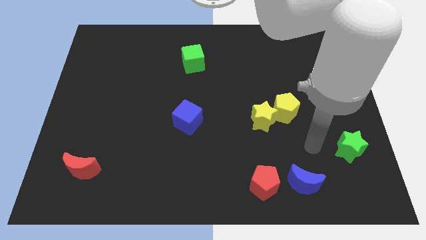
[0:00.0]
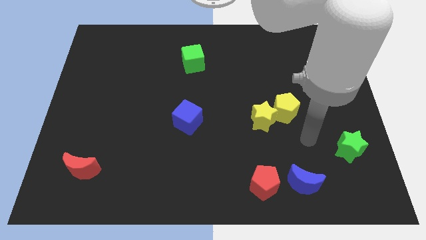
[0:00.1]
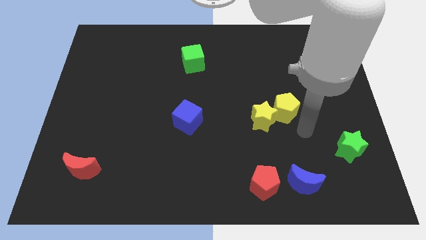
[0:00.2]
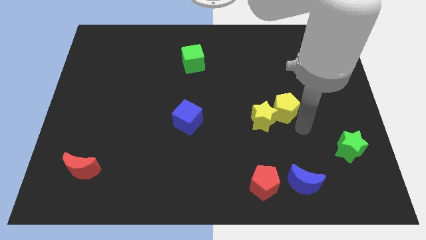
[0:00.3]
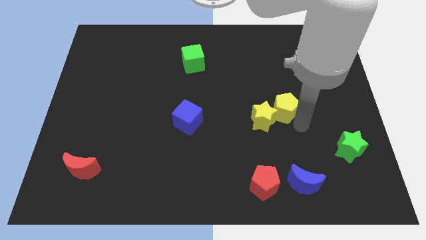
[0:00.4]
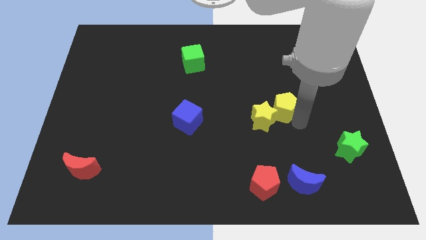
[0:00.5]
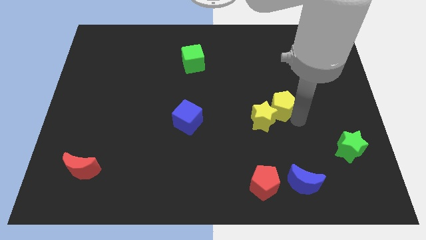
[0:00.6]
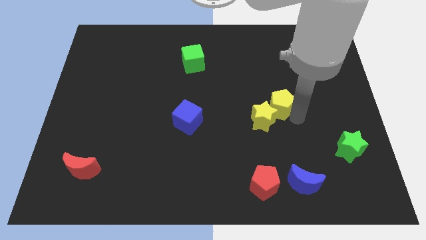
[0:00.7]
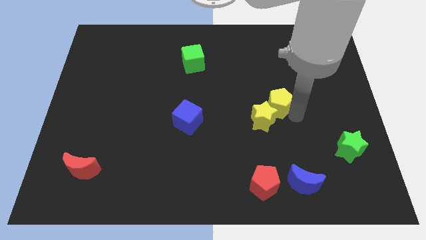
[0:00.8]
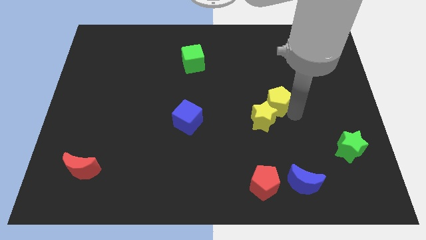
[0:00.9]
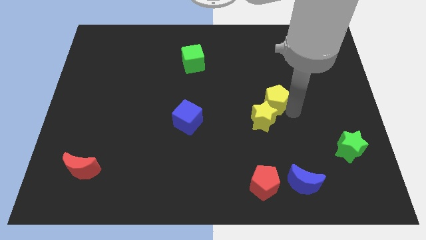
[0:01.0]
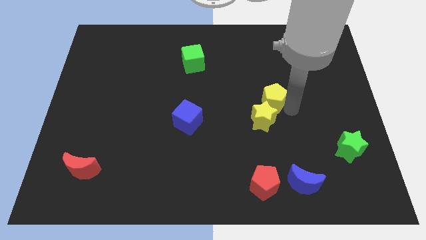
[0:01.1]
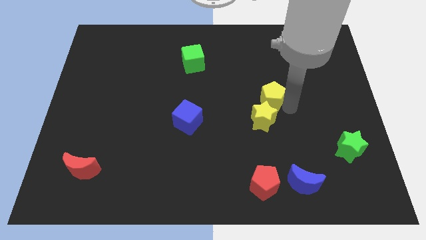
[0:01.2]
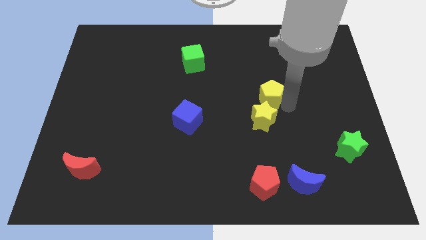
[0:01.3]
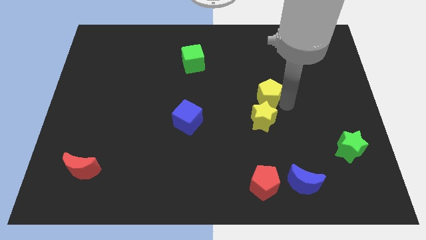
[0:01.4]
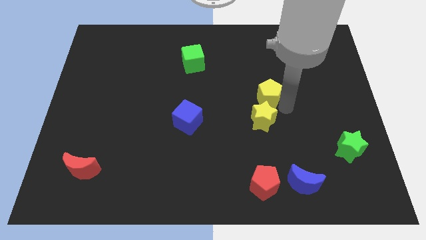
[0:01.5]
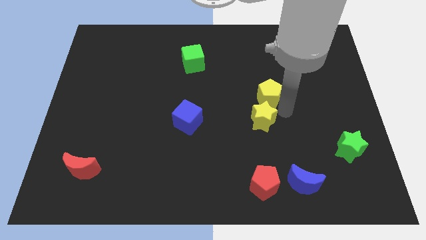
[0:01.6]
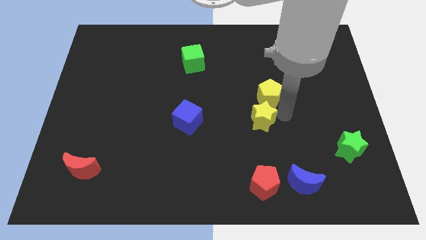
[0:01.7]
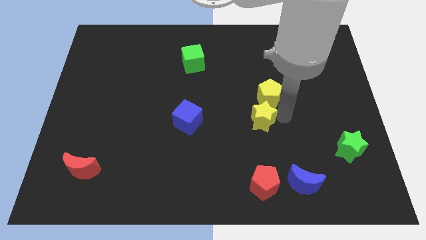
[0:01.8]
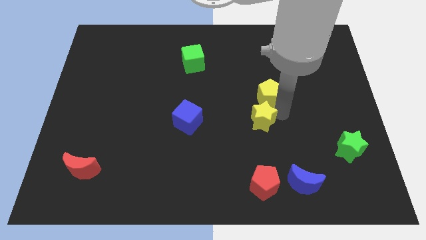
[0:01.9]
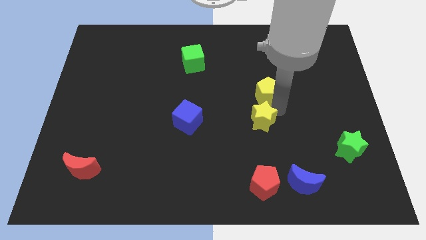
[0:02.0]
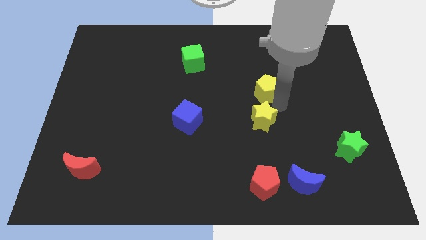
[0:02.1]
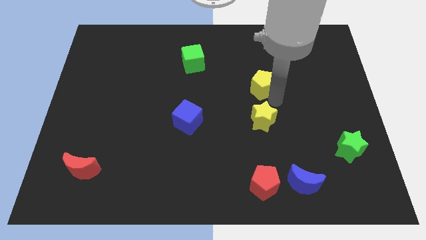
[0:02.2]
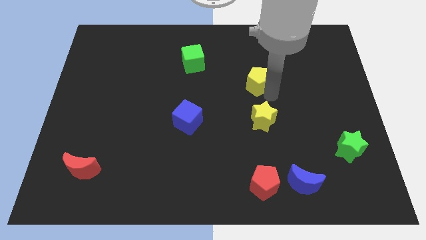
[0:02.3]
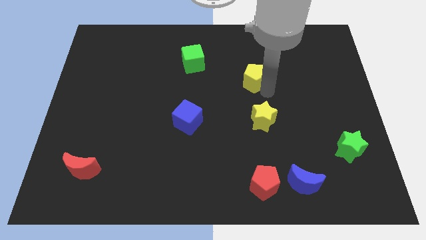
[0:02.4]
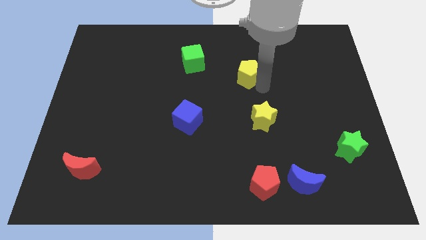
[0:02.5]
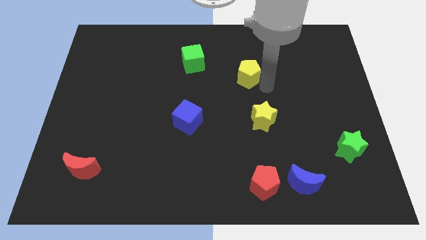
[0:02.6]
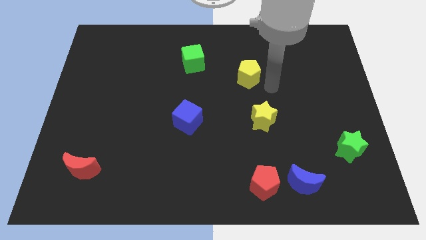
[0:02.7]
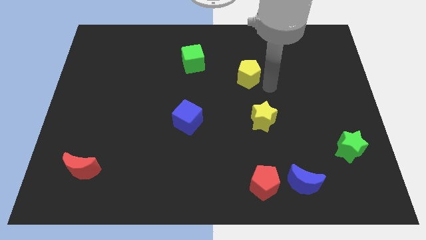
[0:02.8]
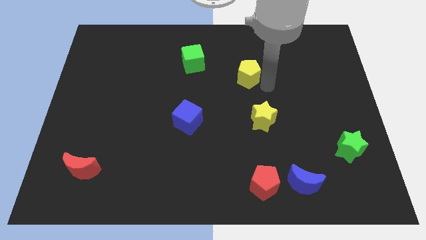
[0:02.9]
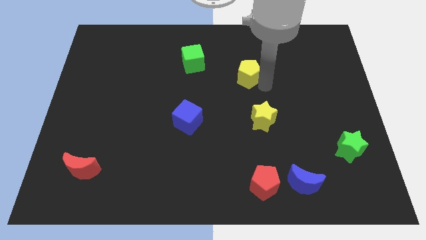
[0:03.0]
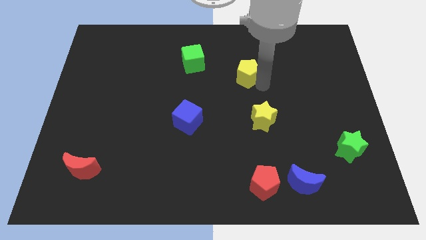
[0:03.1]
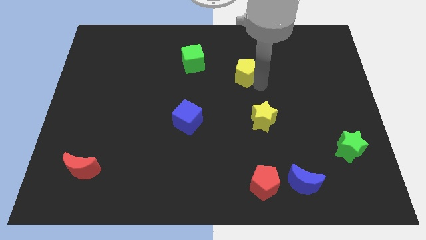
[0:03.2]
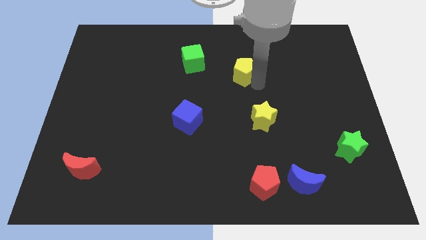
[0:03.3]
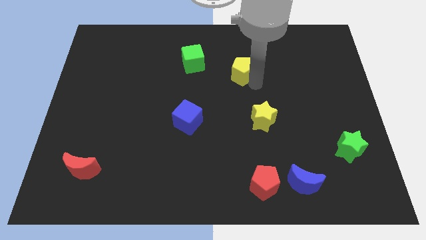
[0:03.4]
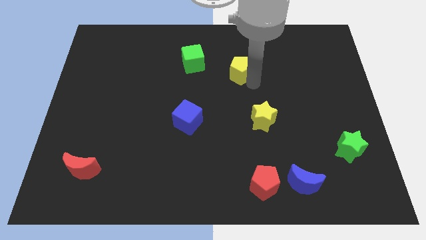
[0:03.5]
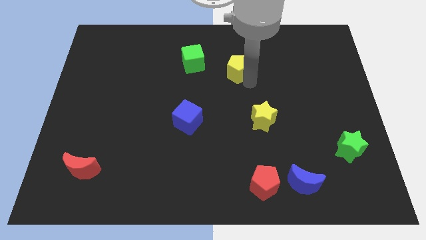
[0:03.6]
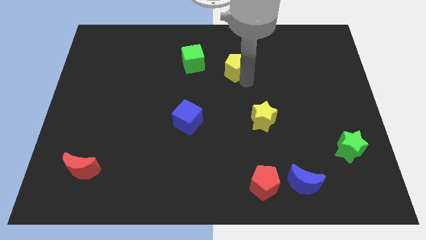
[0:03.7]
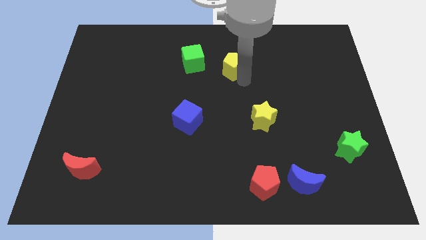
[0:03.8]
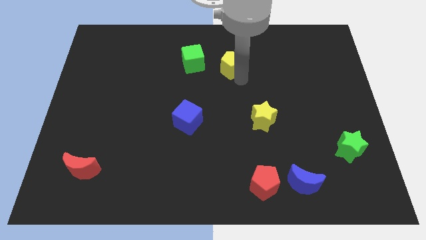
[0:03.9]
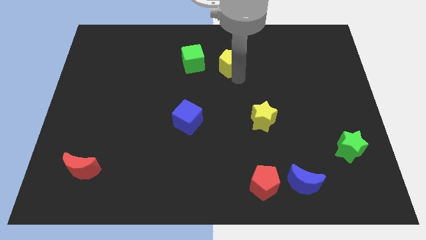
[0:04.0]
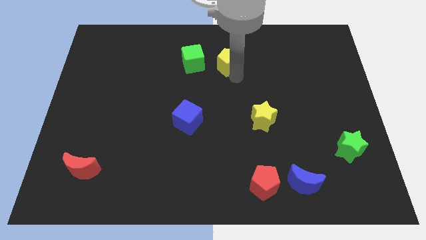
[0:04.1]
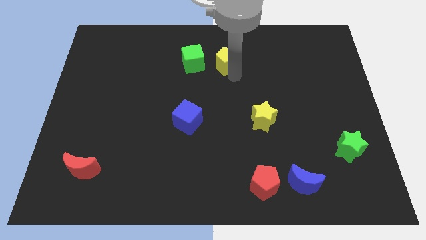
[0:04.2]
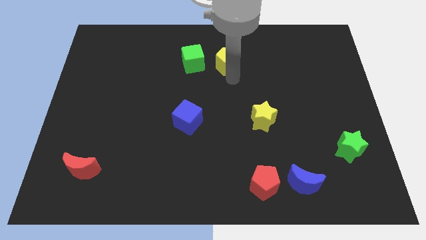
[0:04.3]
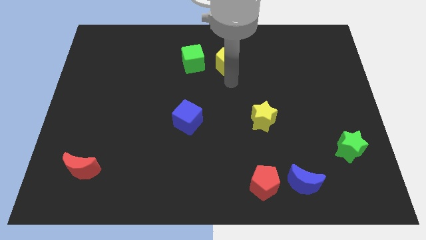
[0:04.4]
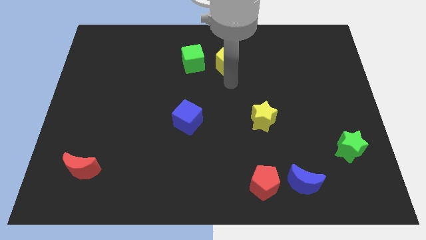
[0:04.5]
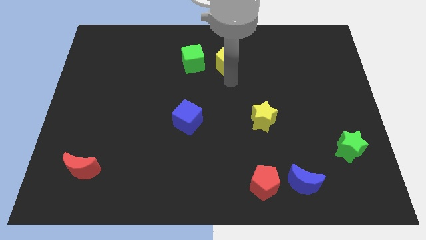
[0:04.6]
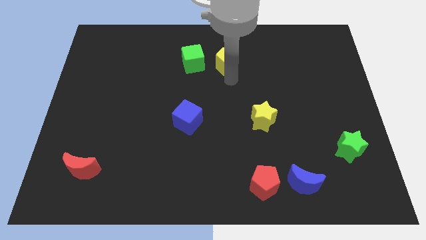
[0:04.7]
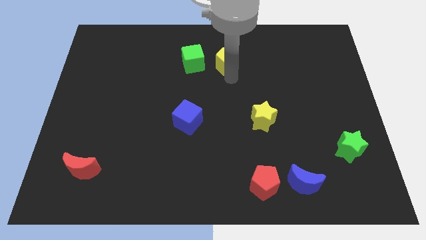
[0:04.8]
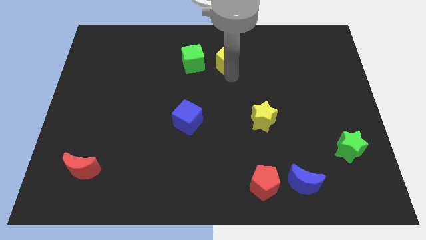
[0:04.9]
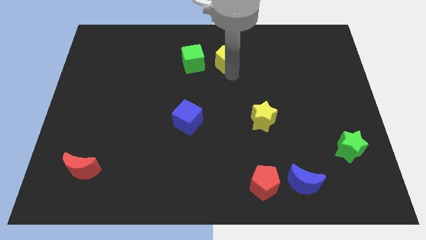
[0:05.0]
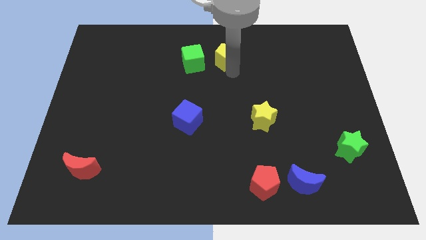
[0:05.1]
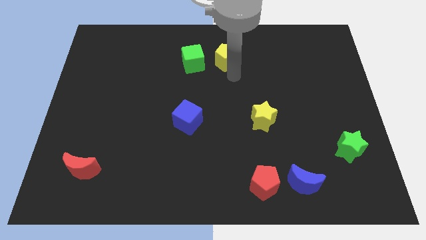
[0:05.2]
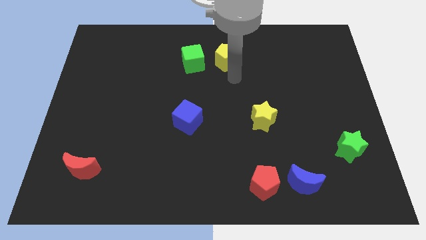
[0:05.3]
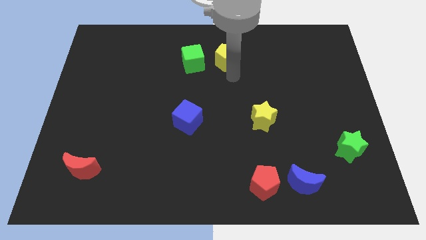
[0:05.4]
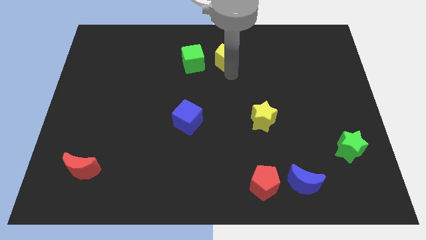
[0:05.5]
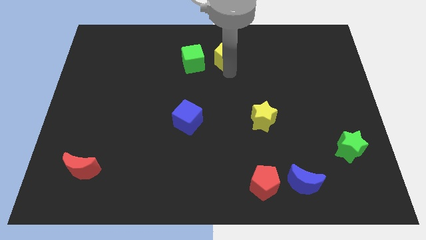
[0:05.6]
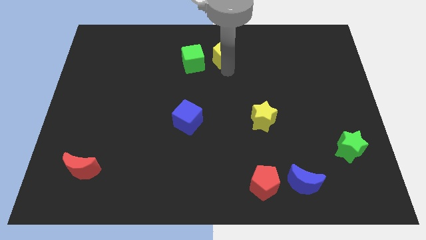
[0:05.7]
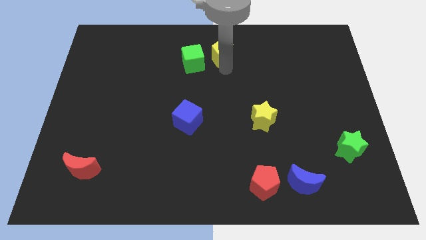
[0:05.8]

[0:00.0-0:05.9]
push the yellow pentagon to the towards your base
